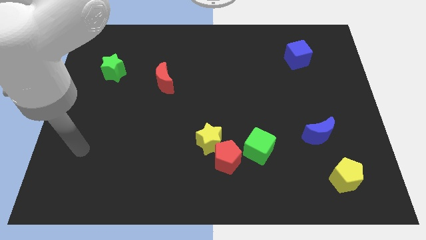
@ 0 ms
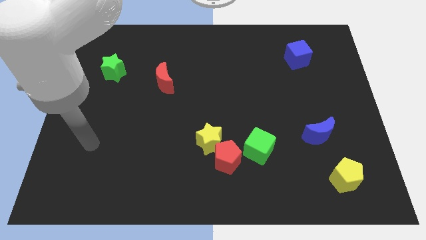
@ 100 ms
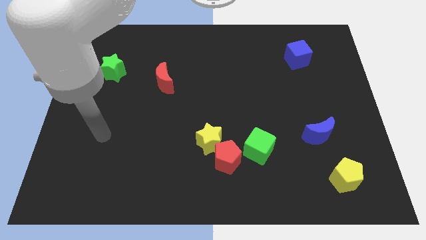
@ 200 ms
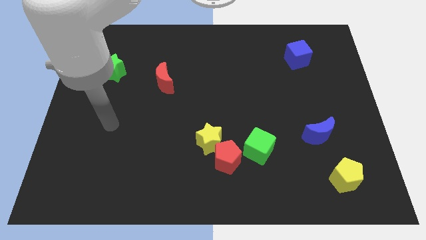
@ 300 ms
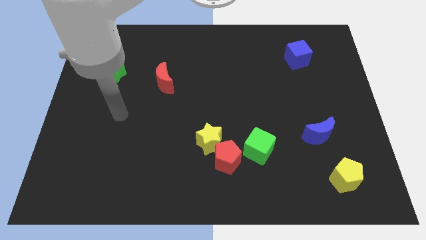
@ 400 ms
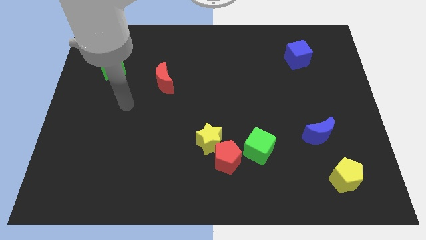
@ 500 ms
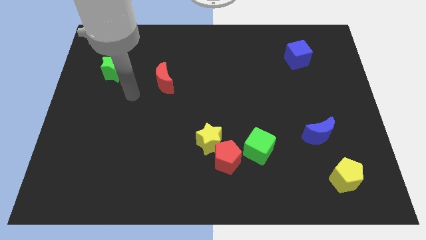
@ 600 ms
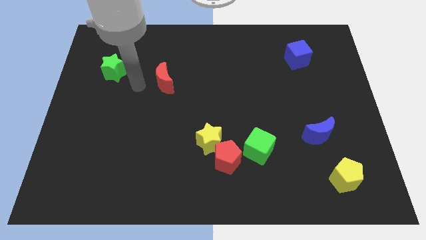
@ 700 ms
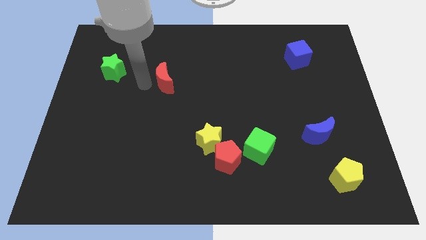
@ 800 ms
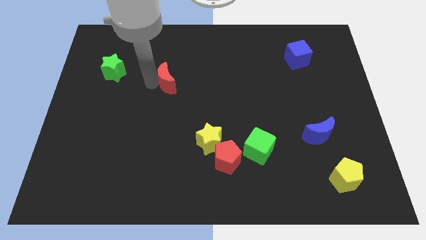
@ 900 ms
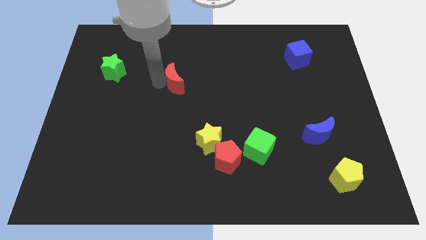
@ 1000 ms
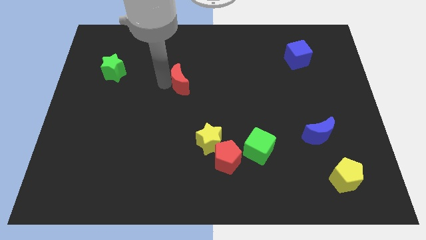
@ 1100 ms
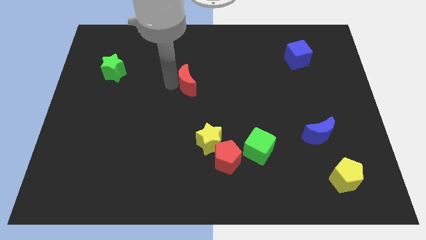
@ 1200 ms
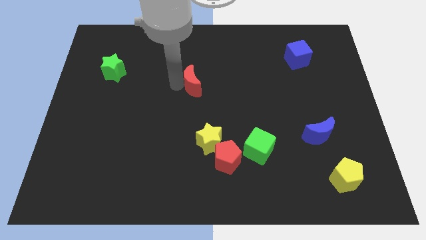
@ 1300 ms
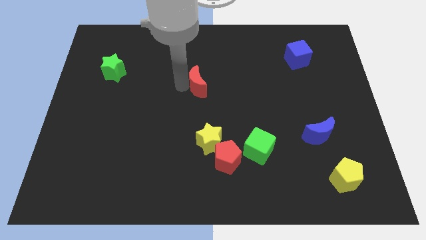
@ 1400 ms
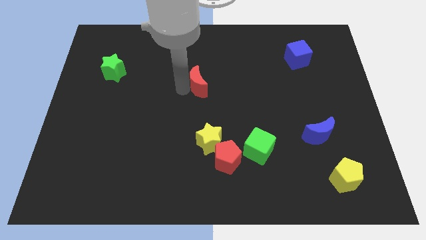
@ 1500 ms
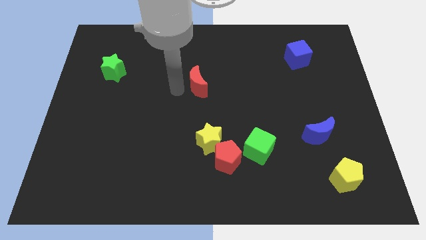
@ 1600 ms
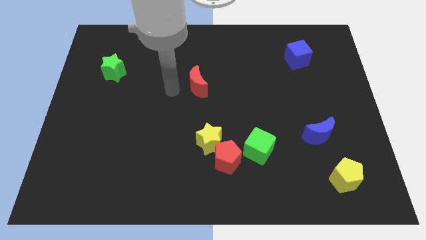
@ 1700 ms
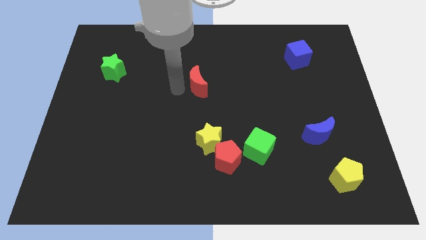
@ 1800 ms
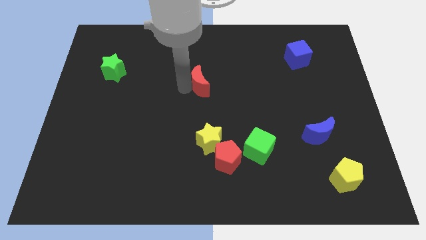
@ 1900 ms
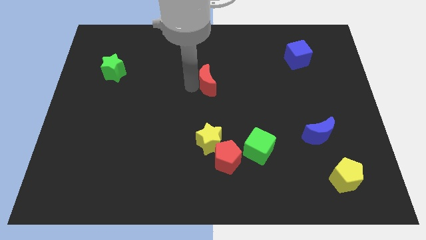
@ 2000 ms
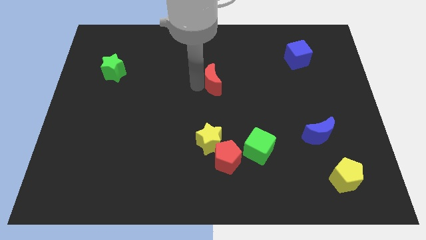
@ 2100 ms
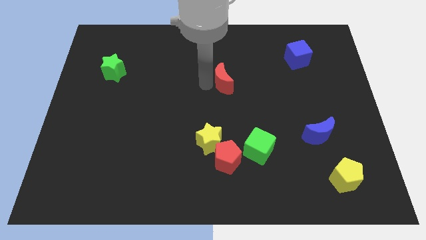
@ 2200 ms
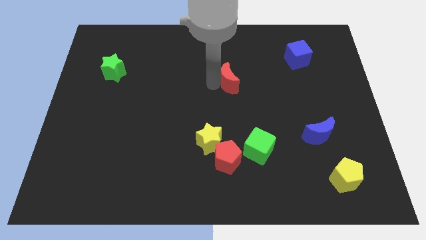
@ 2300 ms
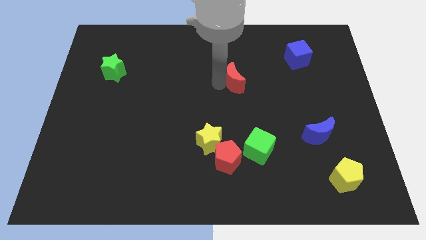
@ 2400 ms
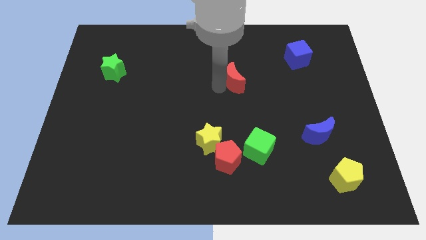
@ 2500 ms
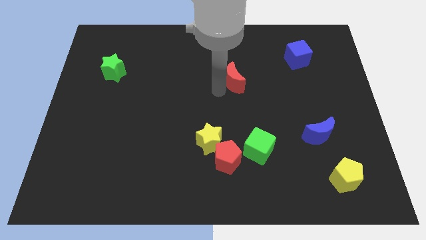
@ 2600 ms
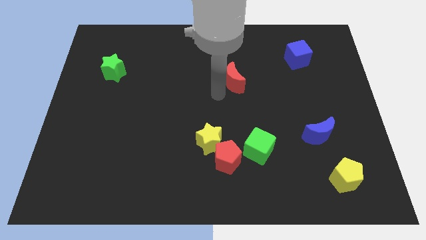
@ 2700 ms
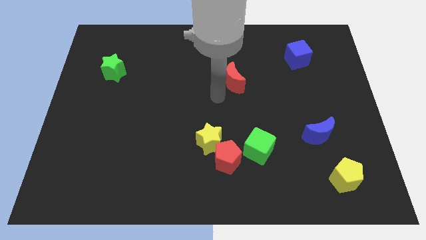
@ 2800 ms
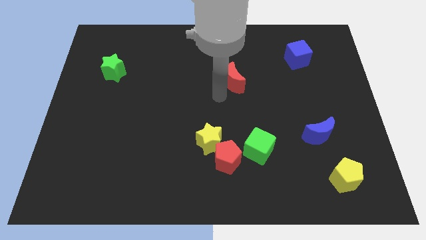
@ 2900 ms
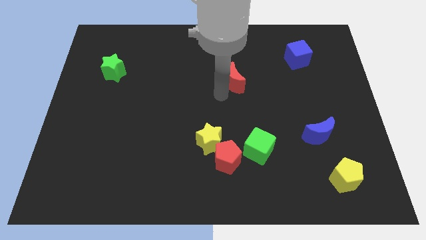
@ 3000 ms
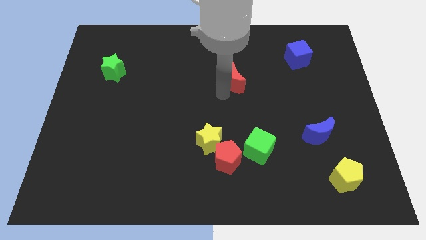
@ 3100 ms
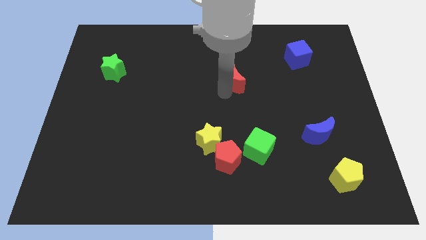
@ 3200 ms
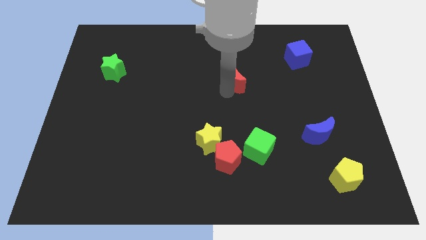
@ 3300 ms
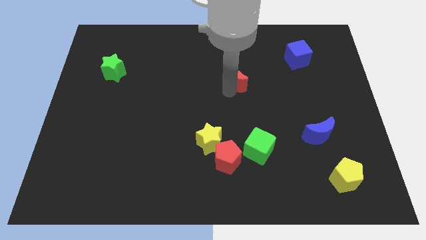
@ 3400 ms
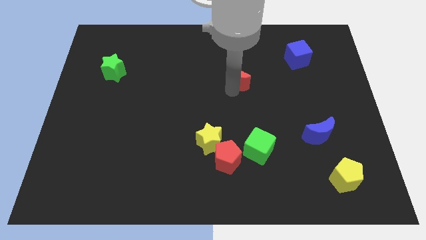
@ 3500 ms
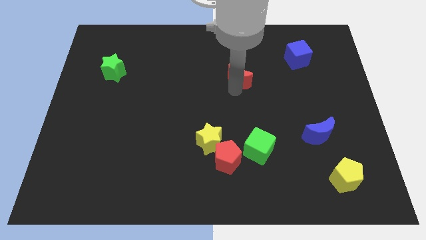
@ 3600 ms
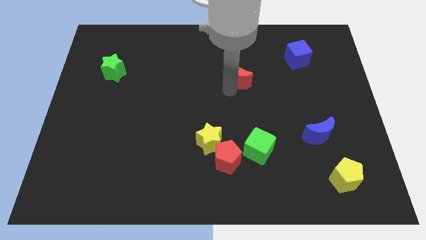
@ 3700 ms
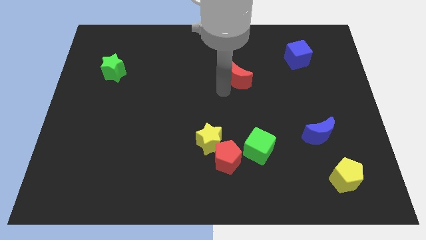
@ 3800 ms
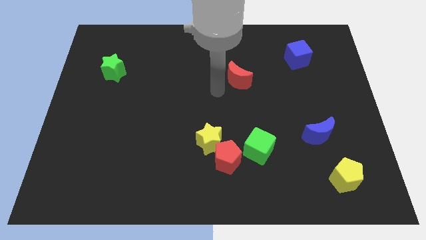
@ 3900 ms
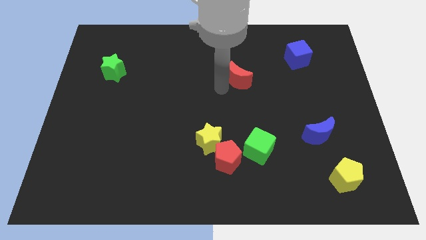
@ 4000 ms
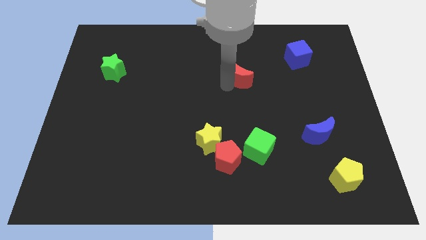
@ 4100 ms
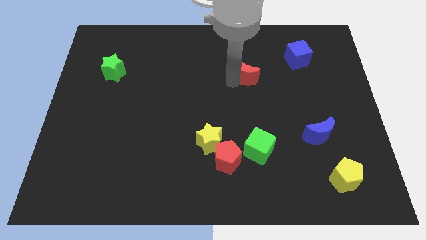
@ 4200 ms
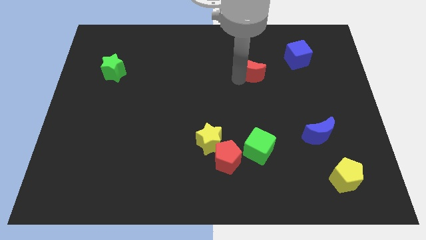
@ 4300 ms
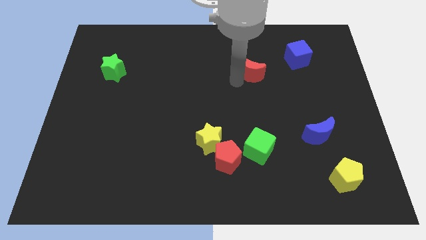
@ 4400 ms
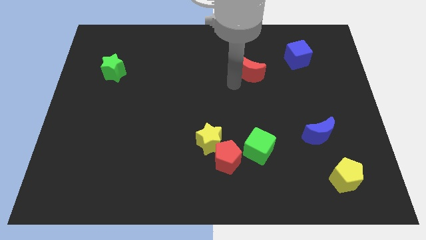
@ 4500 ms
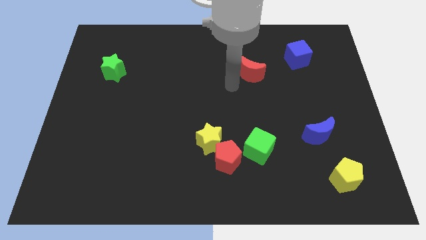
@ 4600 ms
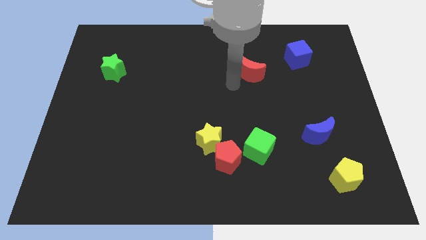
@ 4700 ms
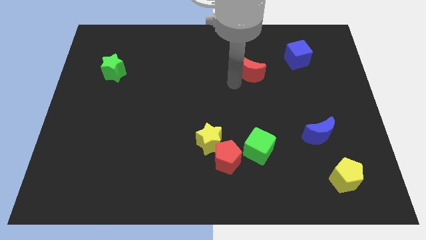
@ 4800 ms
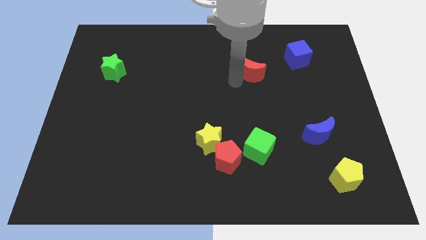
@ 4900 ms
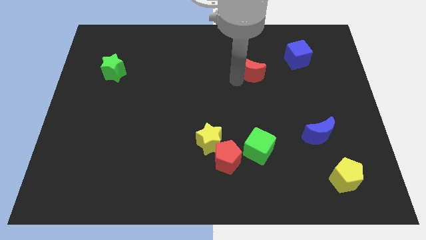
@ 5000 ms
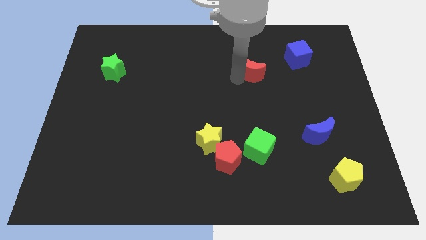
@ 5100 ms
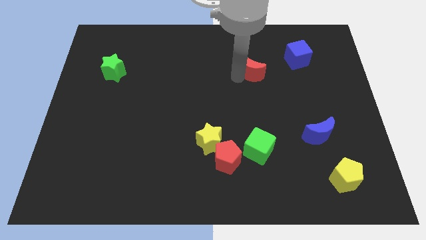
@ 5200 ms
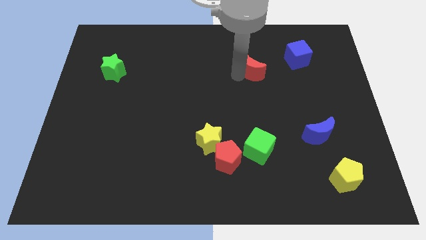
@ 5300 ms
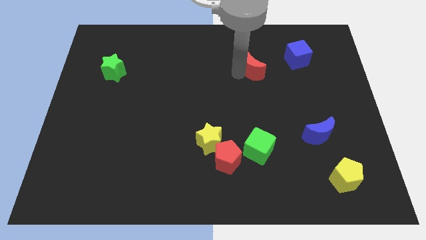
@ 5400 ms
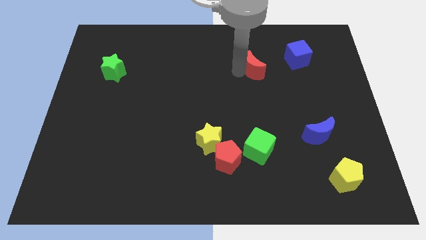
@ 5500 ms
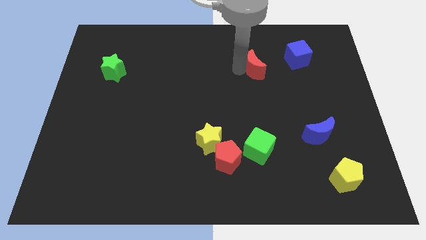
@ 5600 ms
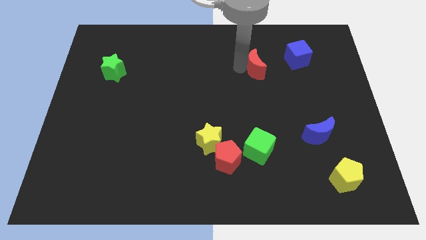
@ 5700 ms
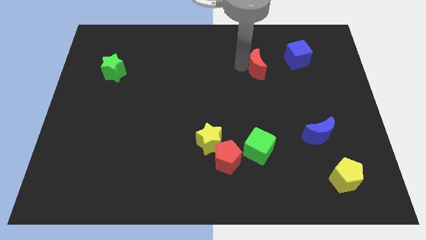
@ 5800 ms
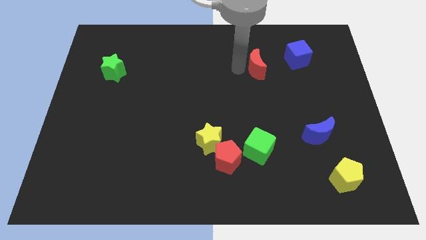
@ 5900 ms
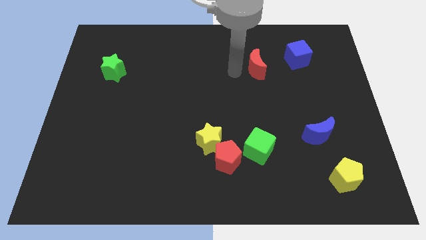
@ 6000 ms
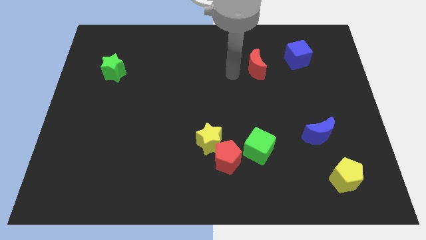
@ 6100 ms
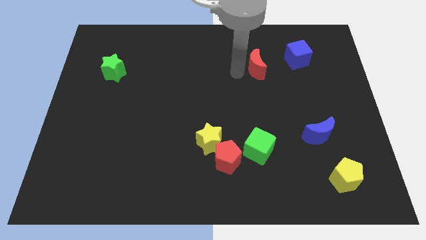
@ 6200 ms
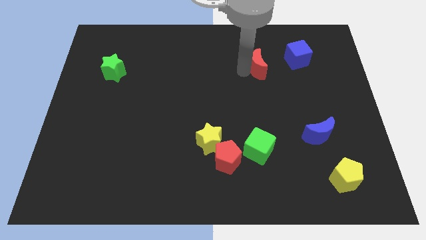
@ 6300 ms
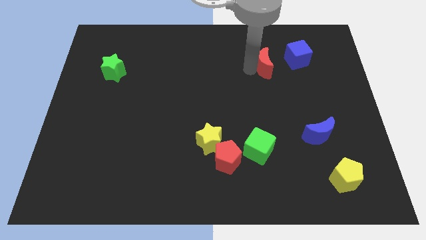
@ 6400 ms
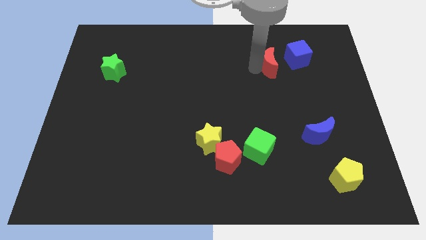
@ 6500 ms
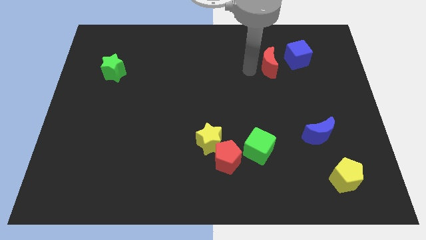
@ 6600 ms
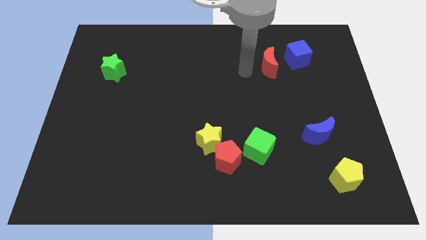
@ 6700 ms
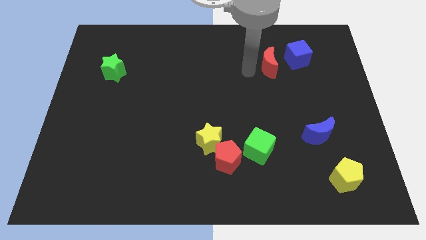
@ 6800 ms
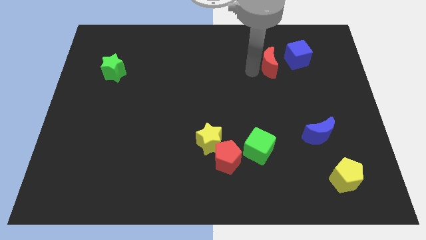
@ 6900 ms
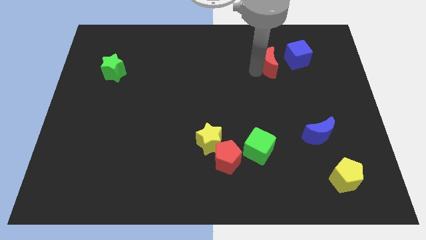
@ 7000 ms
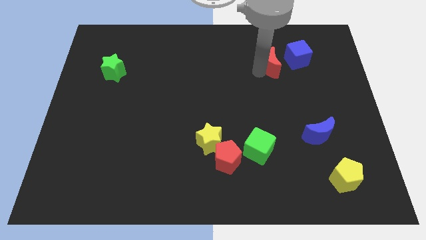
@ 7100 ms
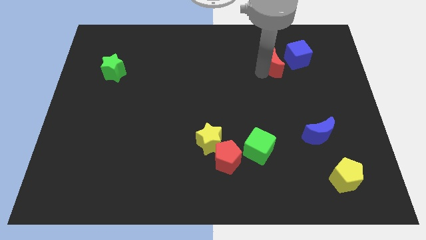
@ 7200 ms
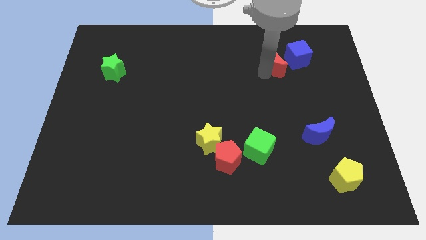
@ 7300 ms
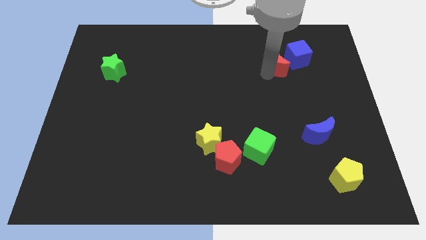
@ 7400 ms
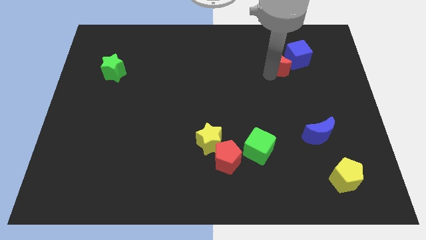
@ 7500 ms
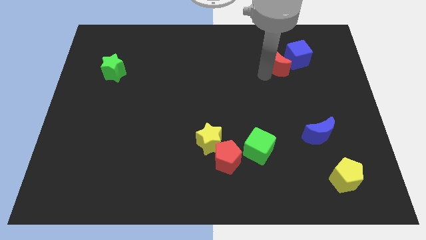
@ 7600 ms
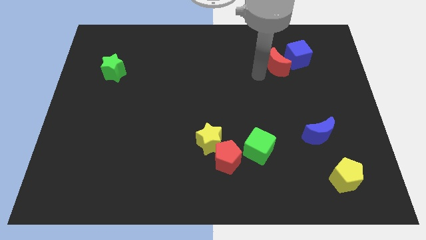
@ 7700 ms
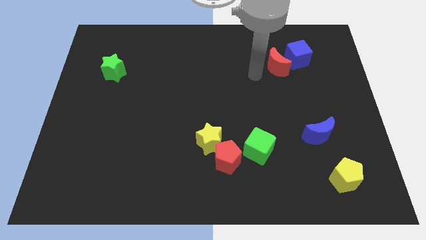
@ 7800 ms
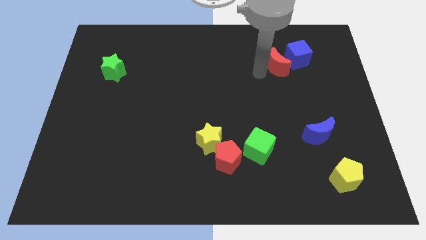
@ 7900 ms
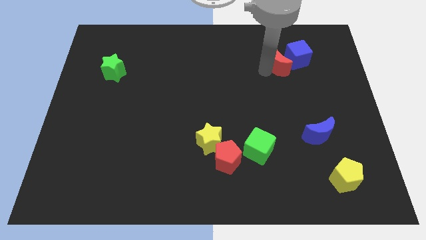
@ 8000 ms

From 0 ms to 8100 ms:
put the red moon close to the blue cube
